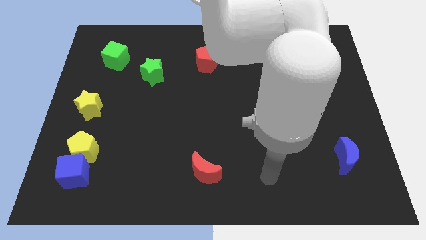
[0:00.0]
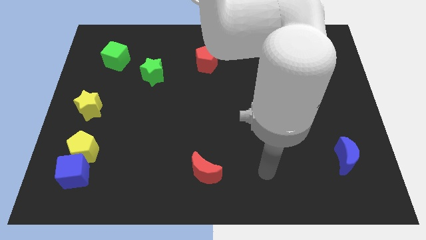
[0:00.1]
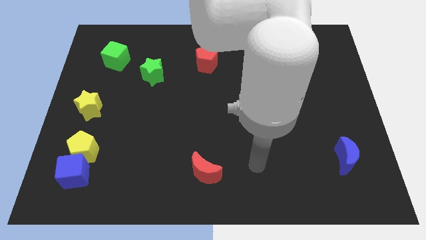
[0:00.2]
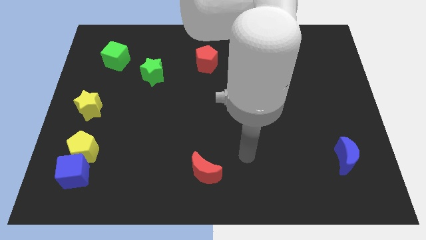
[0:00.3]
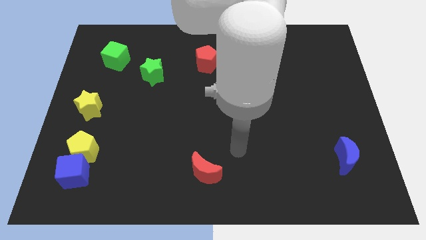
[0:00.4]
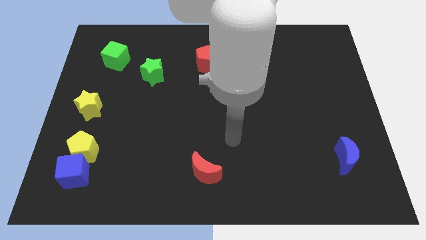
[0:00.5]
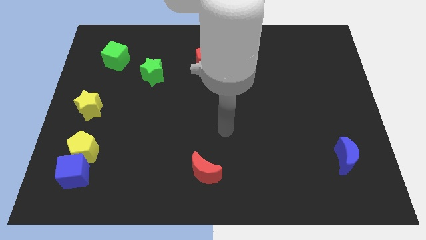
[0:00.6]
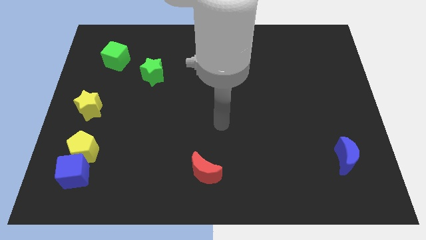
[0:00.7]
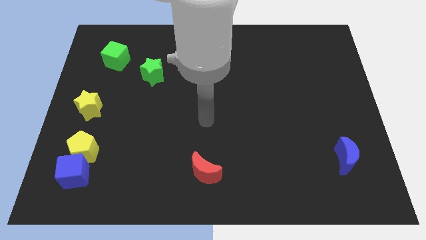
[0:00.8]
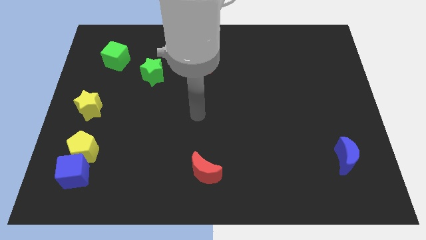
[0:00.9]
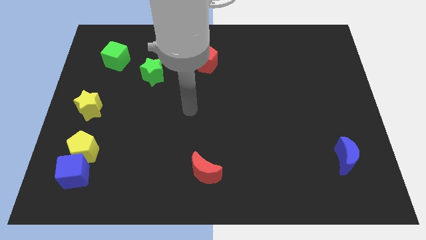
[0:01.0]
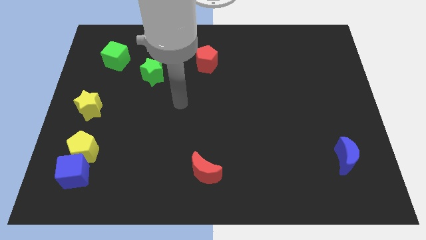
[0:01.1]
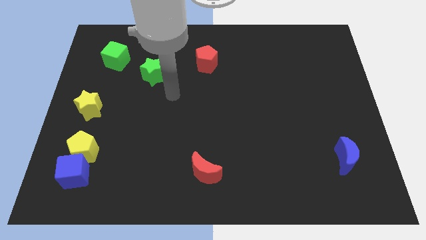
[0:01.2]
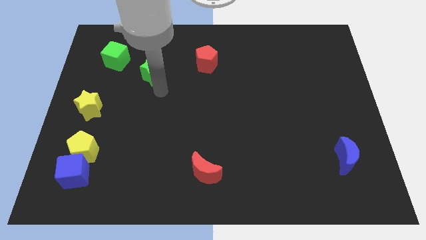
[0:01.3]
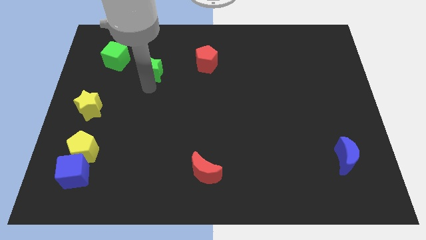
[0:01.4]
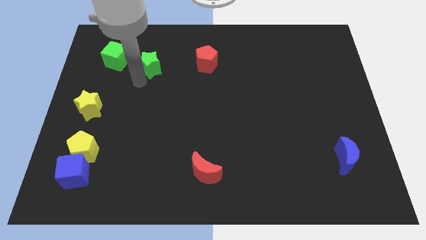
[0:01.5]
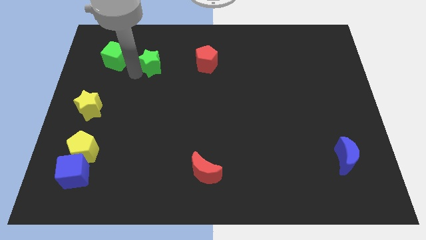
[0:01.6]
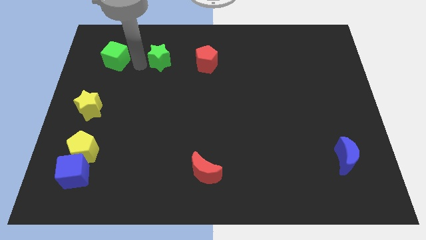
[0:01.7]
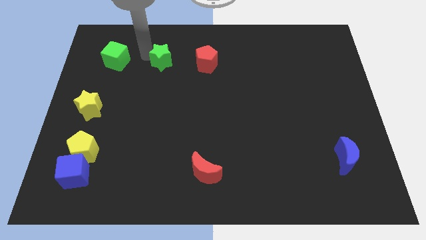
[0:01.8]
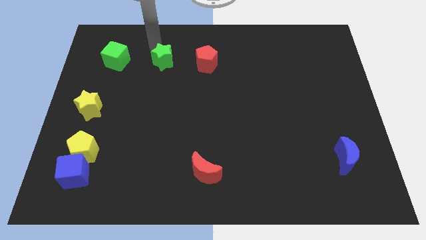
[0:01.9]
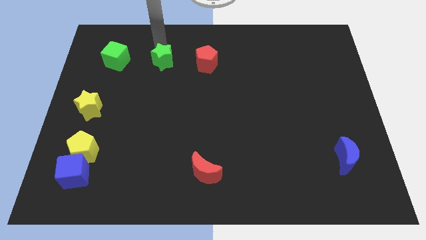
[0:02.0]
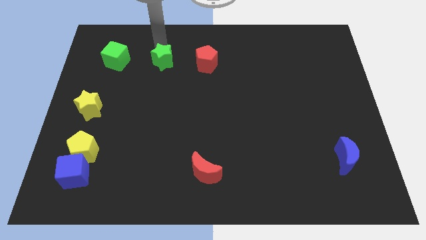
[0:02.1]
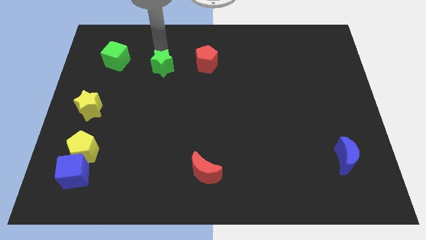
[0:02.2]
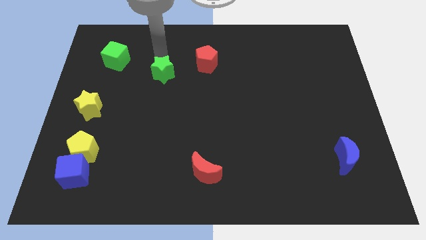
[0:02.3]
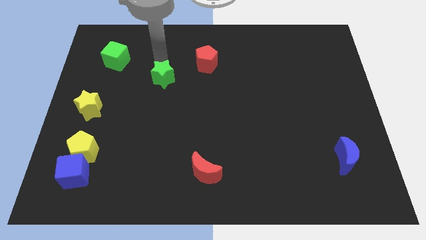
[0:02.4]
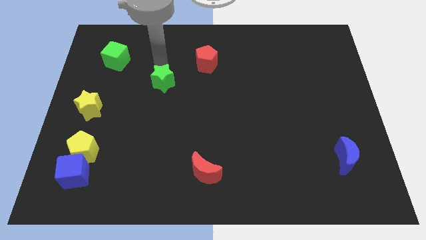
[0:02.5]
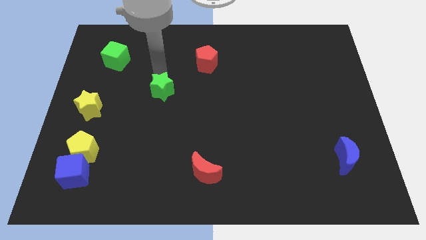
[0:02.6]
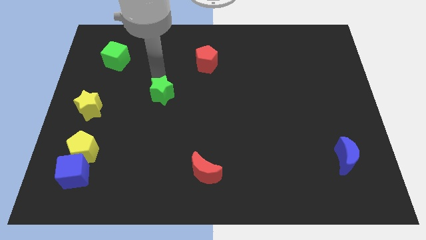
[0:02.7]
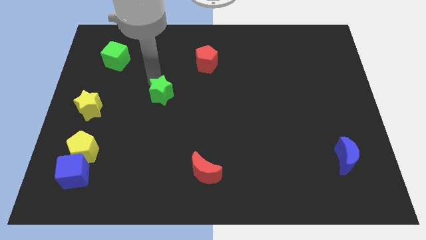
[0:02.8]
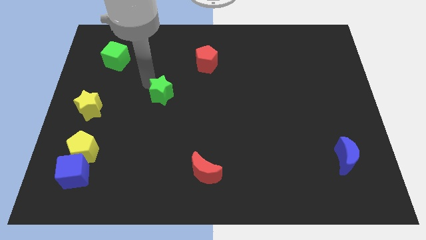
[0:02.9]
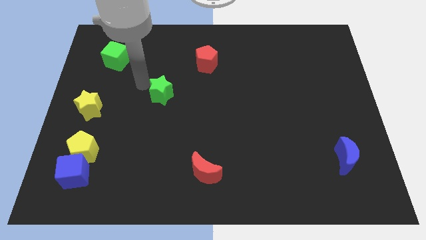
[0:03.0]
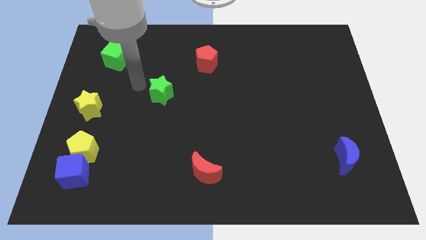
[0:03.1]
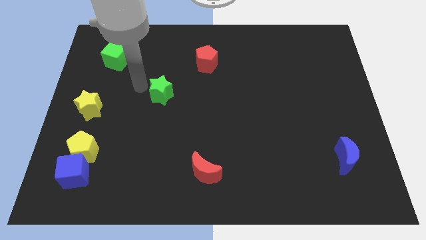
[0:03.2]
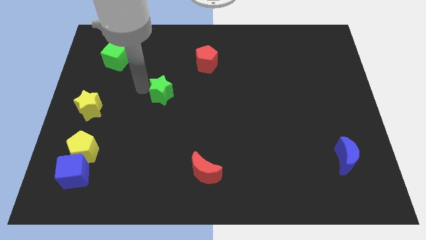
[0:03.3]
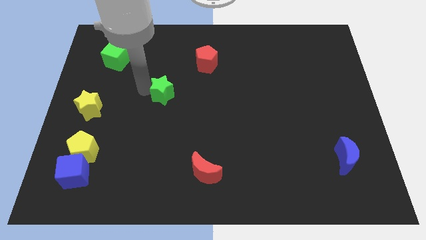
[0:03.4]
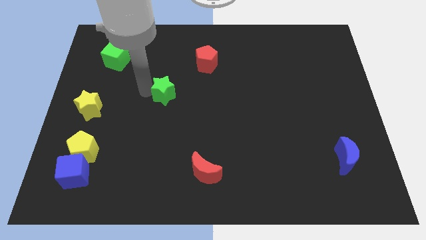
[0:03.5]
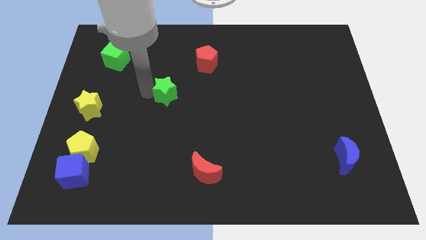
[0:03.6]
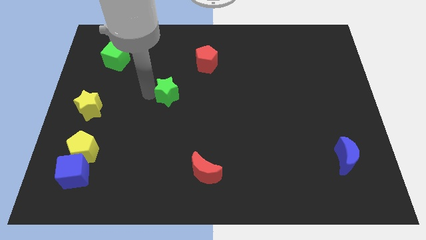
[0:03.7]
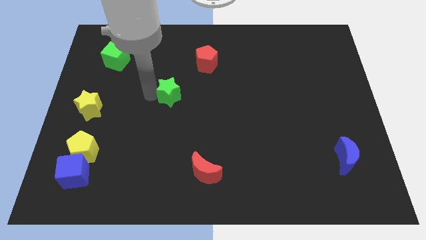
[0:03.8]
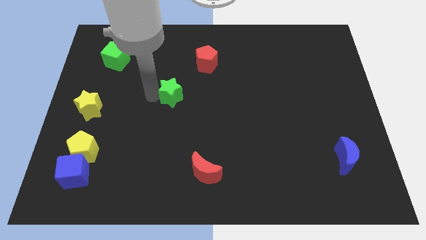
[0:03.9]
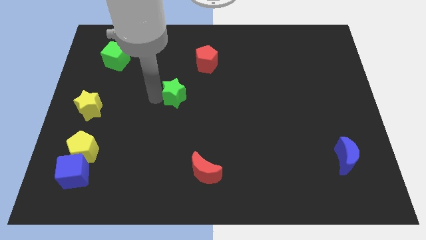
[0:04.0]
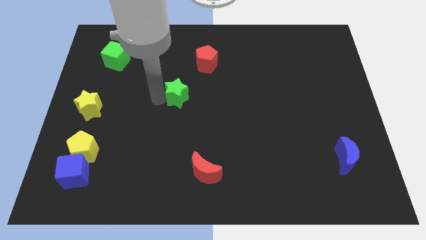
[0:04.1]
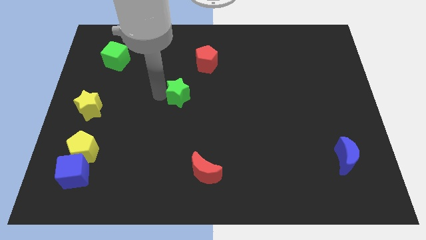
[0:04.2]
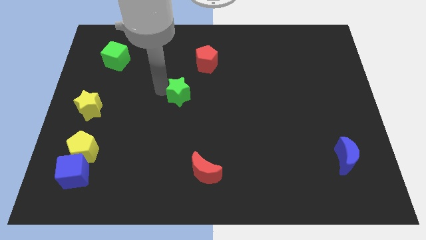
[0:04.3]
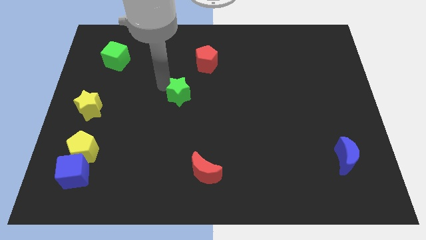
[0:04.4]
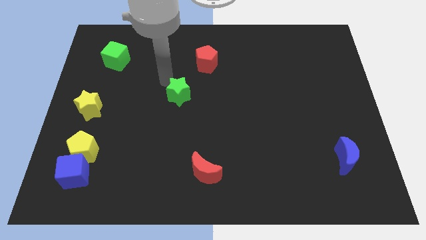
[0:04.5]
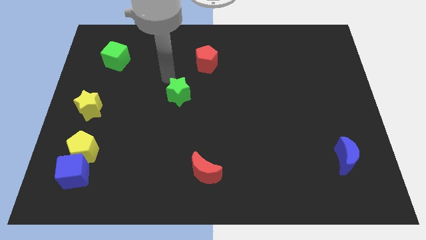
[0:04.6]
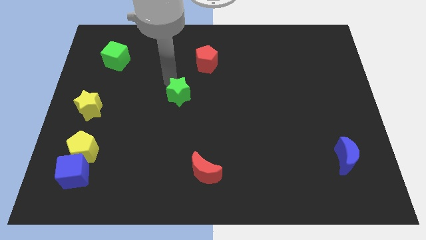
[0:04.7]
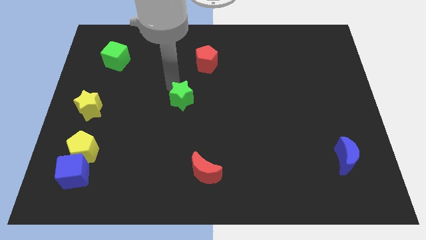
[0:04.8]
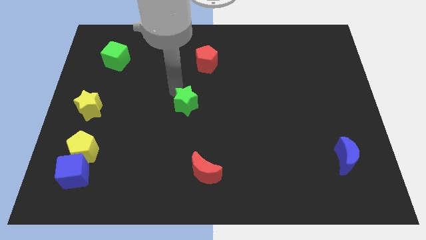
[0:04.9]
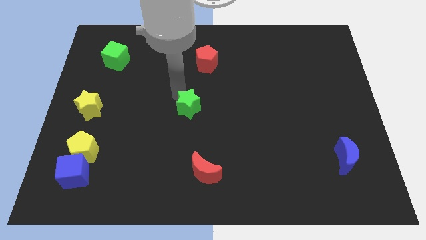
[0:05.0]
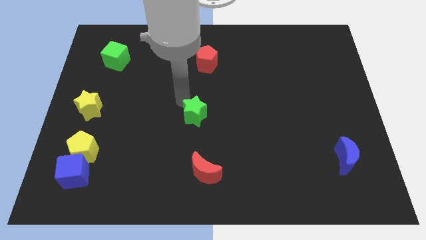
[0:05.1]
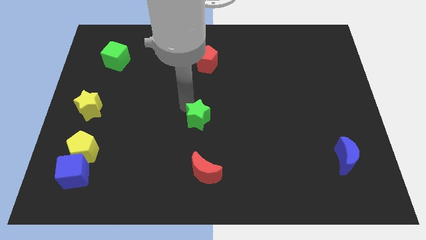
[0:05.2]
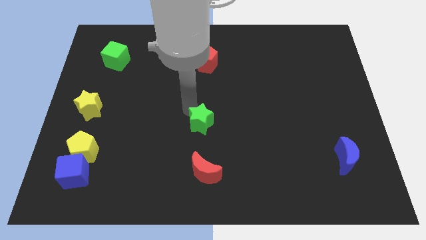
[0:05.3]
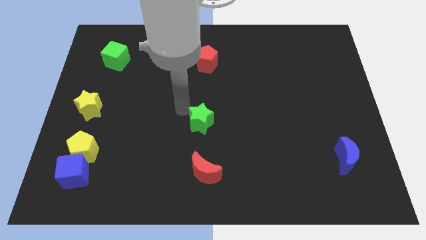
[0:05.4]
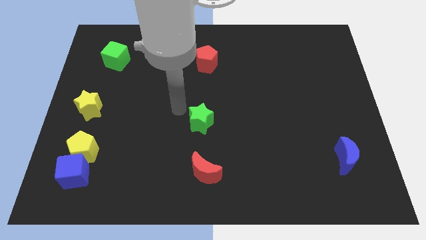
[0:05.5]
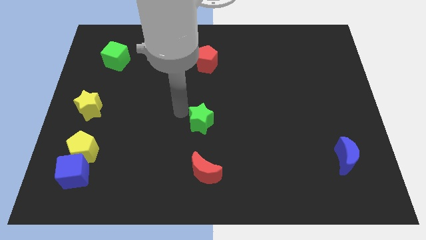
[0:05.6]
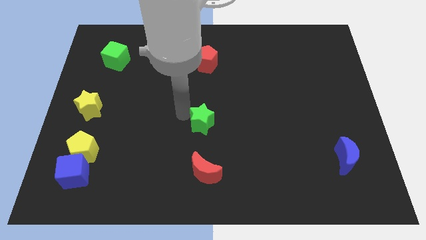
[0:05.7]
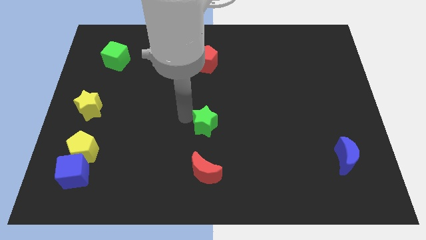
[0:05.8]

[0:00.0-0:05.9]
push the green star down and right

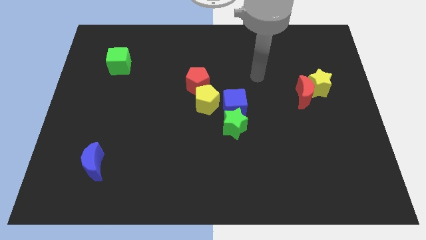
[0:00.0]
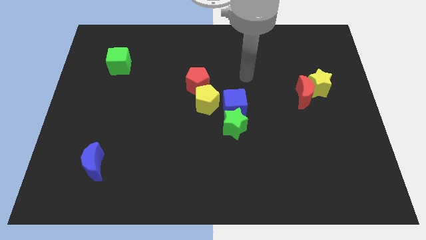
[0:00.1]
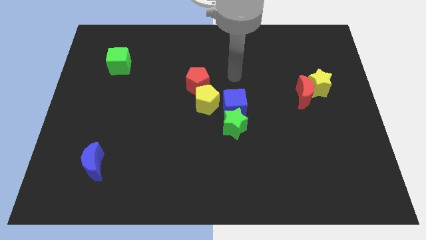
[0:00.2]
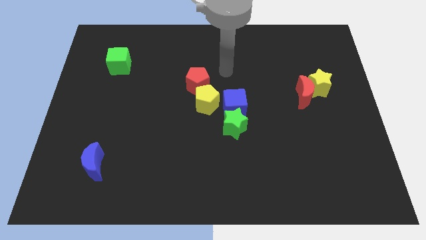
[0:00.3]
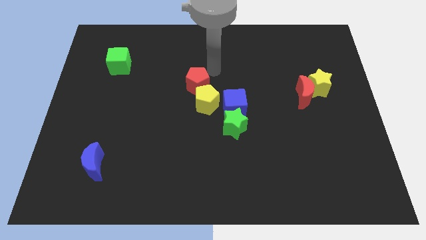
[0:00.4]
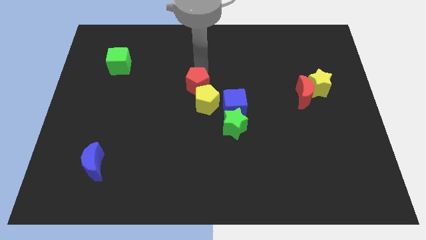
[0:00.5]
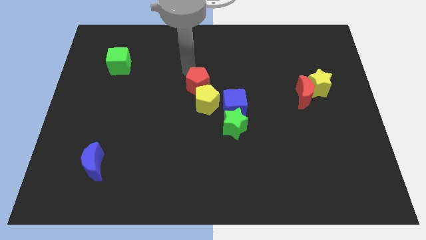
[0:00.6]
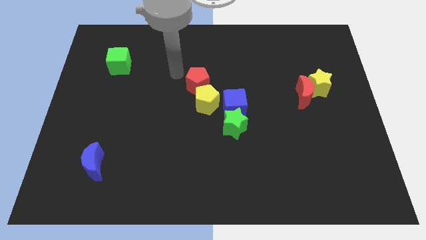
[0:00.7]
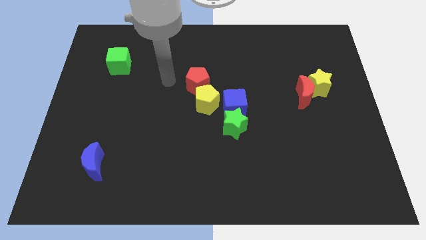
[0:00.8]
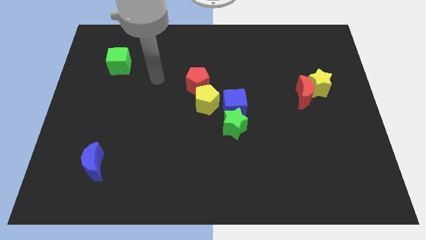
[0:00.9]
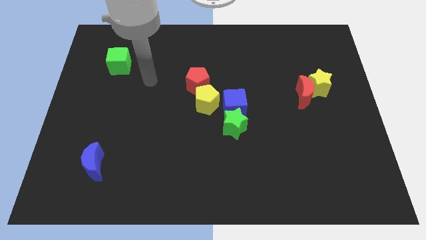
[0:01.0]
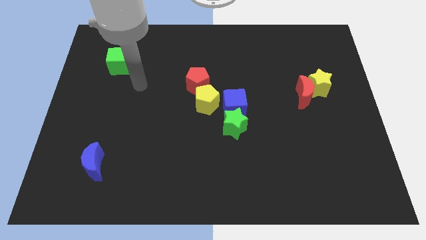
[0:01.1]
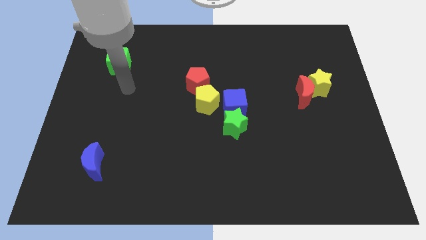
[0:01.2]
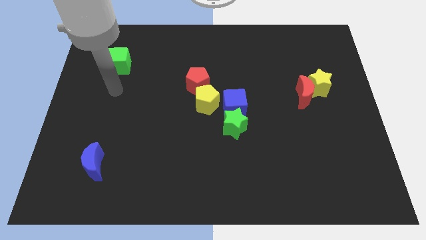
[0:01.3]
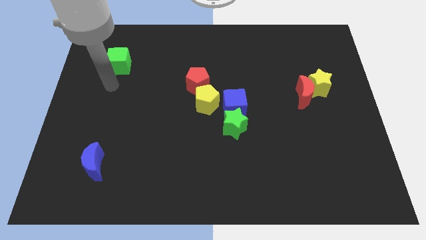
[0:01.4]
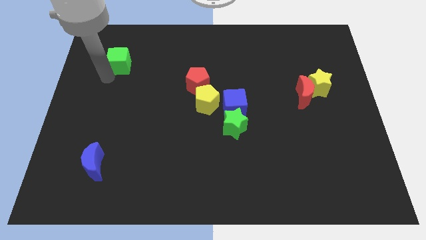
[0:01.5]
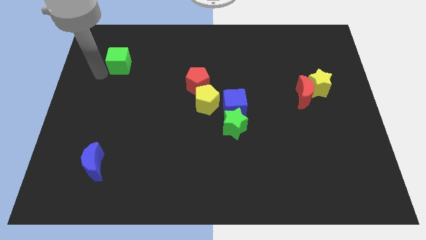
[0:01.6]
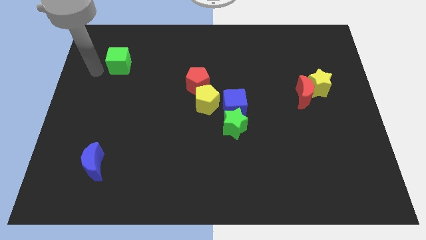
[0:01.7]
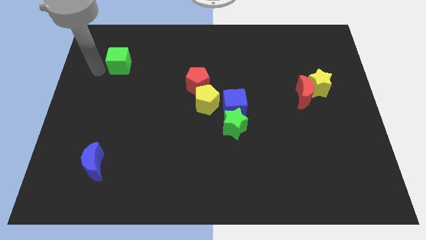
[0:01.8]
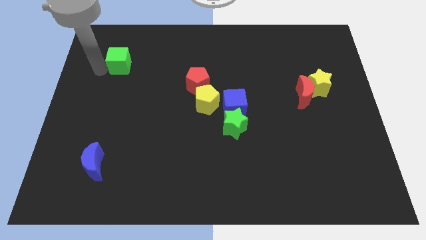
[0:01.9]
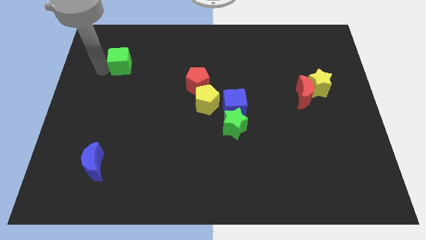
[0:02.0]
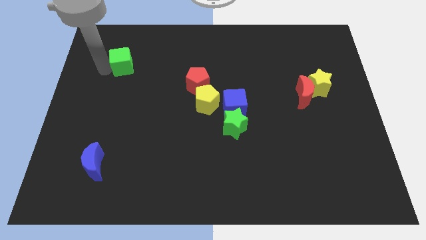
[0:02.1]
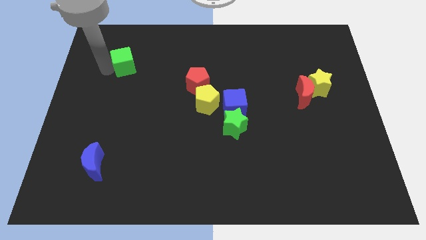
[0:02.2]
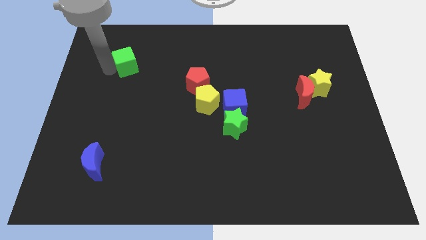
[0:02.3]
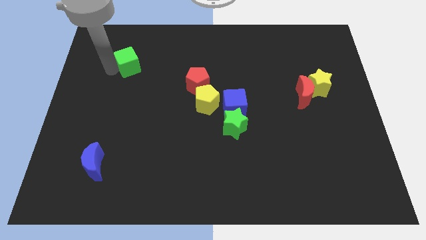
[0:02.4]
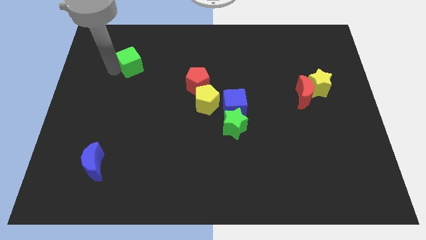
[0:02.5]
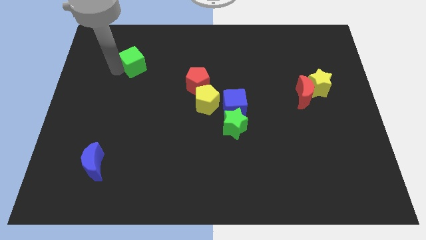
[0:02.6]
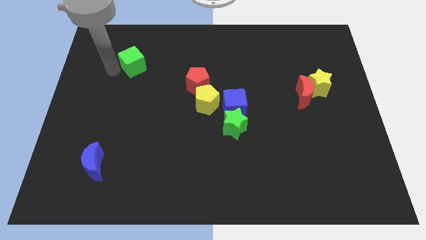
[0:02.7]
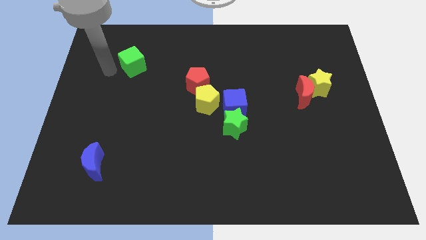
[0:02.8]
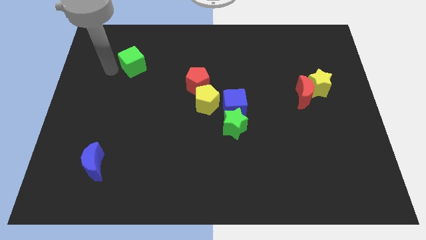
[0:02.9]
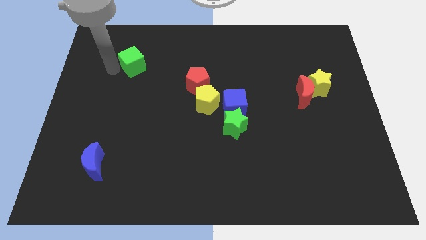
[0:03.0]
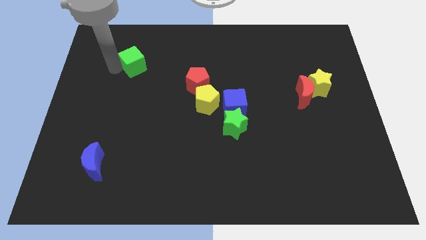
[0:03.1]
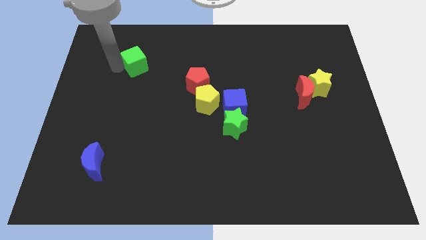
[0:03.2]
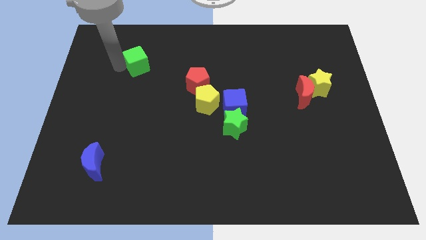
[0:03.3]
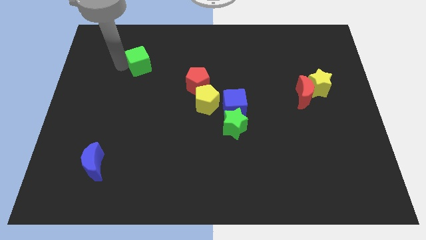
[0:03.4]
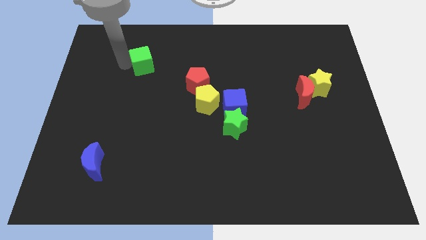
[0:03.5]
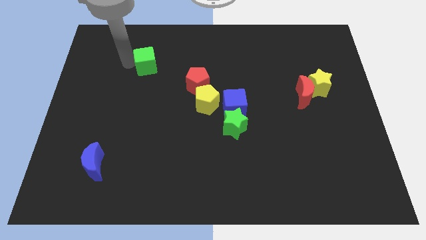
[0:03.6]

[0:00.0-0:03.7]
slightly push the green cube right
